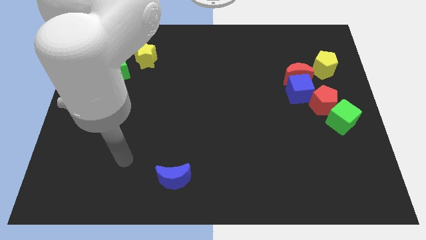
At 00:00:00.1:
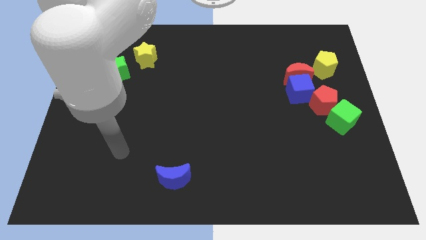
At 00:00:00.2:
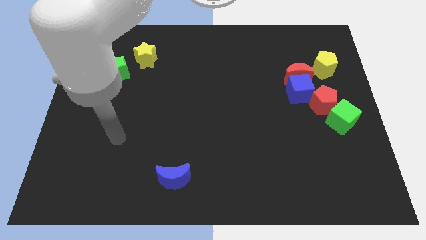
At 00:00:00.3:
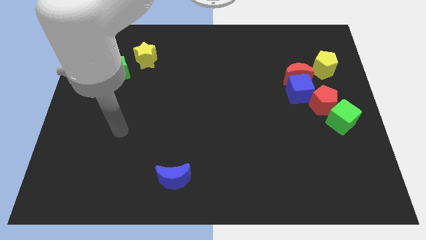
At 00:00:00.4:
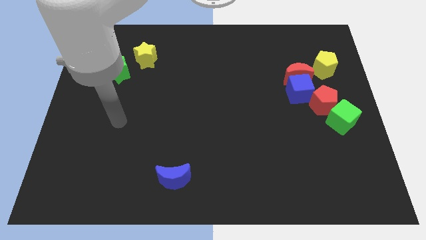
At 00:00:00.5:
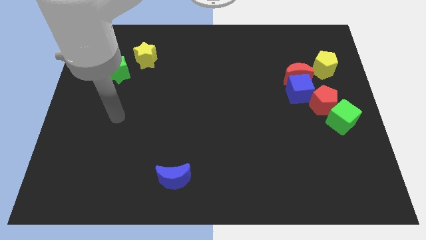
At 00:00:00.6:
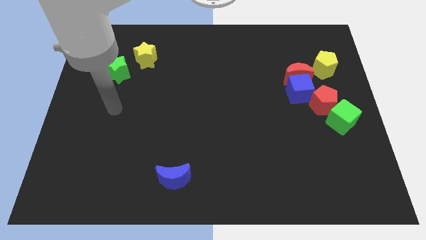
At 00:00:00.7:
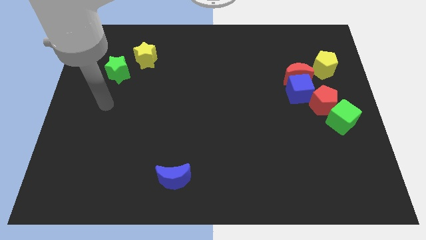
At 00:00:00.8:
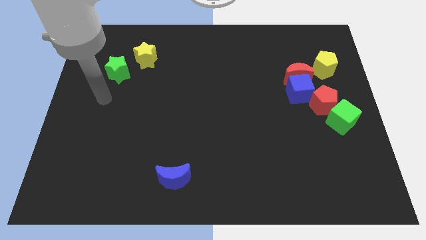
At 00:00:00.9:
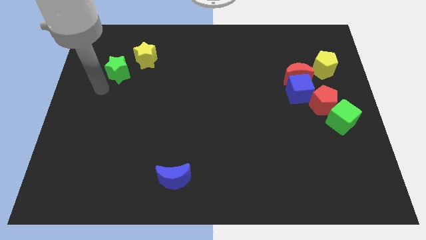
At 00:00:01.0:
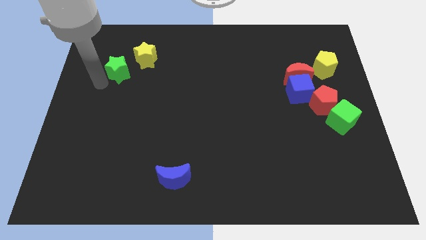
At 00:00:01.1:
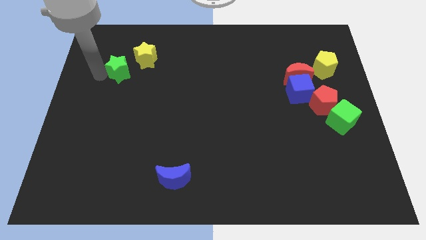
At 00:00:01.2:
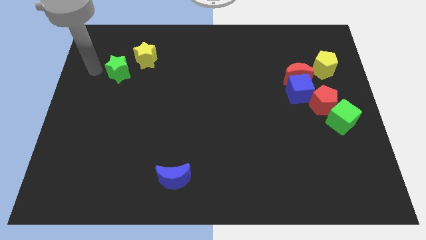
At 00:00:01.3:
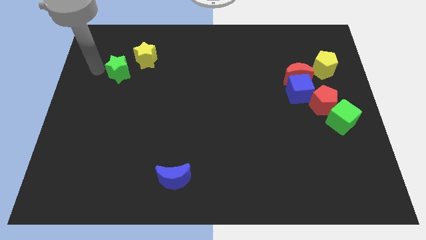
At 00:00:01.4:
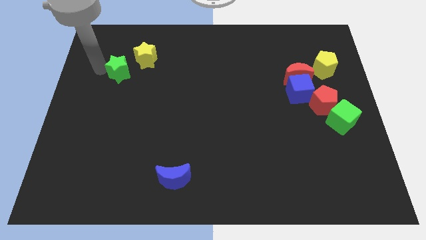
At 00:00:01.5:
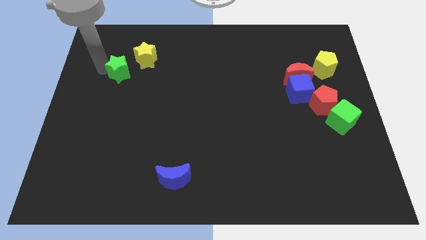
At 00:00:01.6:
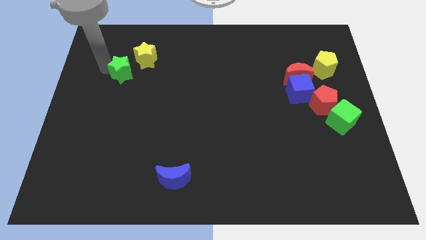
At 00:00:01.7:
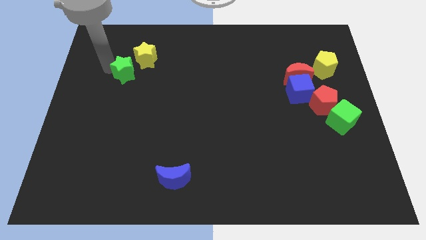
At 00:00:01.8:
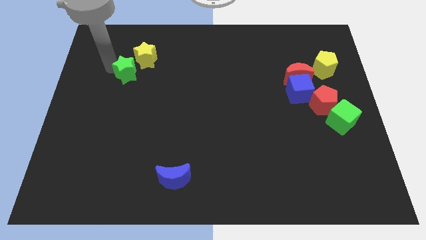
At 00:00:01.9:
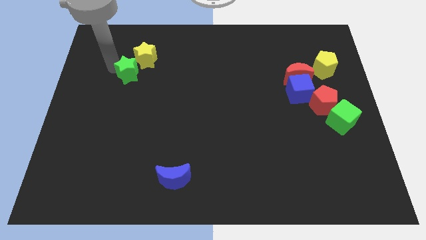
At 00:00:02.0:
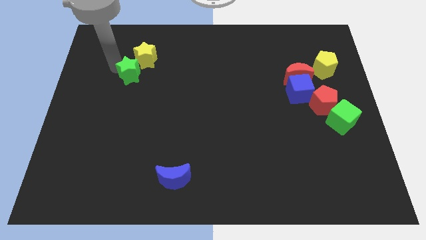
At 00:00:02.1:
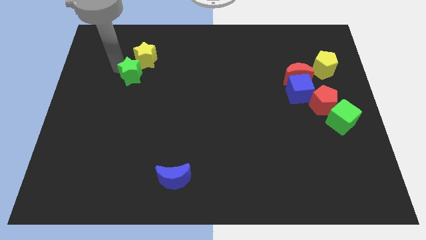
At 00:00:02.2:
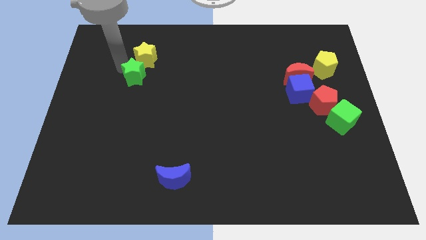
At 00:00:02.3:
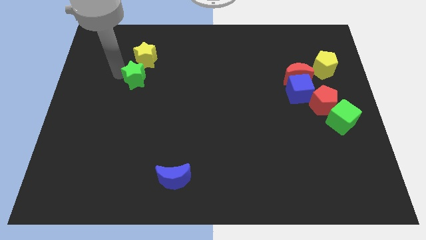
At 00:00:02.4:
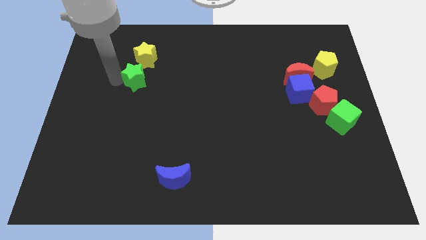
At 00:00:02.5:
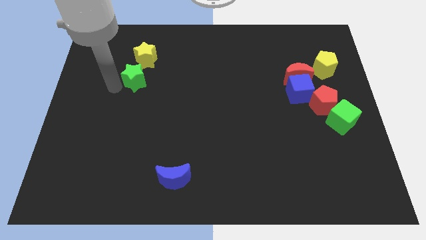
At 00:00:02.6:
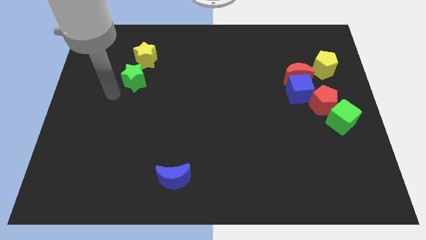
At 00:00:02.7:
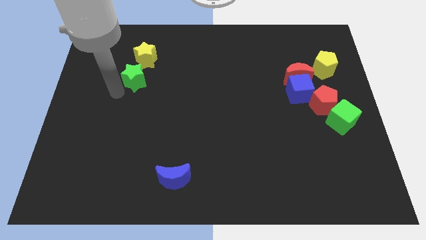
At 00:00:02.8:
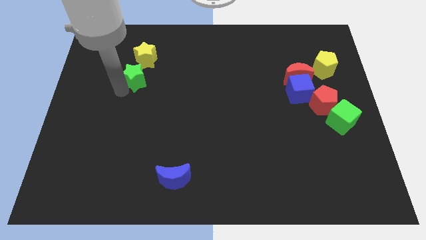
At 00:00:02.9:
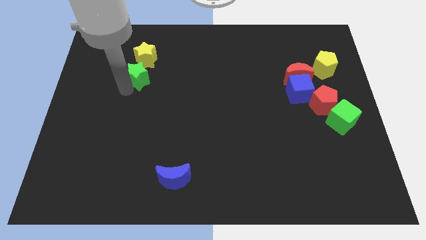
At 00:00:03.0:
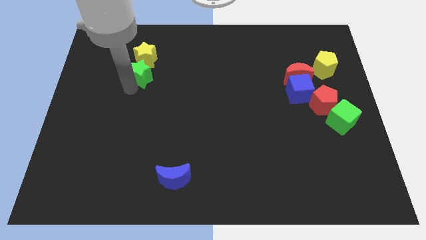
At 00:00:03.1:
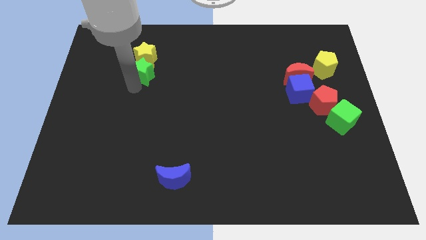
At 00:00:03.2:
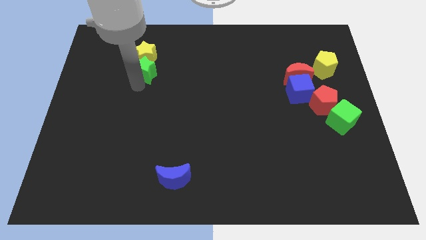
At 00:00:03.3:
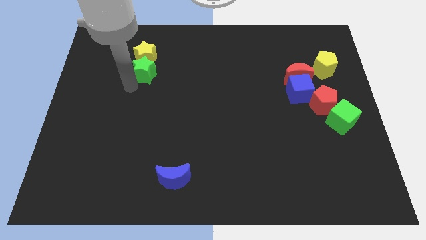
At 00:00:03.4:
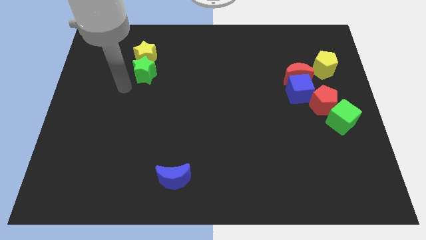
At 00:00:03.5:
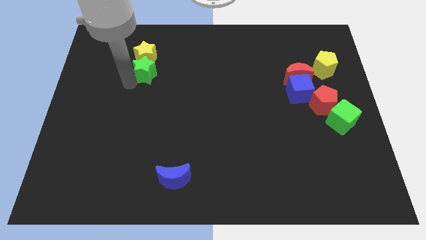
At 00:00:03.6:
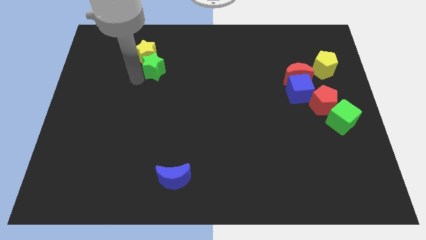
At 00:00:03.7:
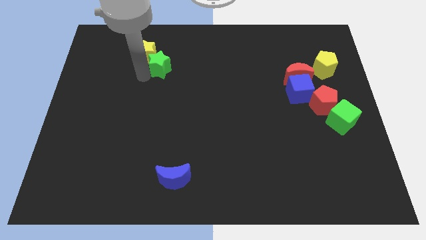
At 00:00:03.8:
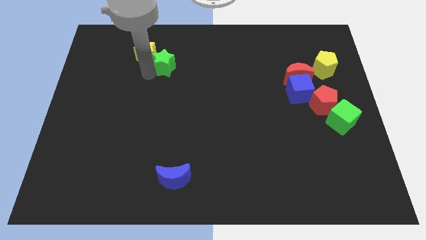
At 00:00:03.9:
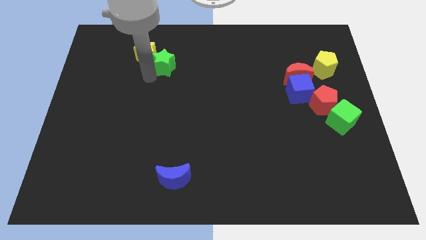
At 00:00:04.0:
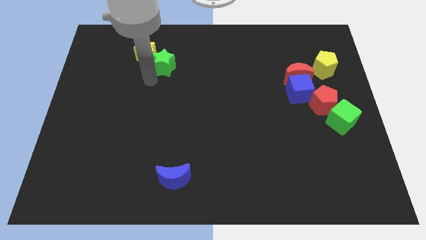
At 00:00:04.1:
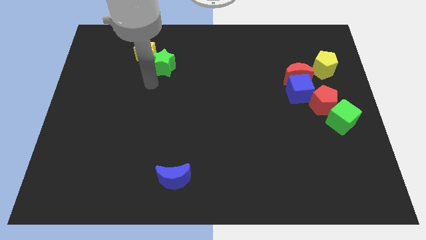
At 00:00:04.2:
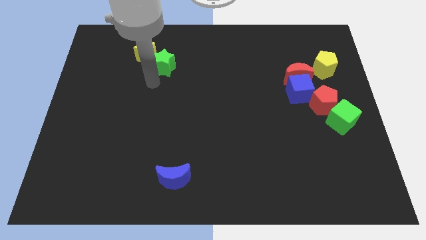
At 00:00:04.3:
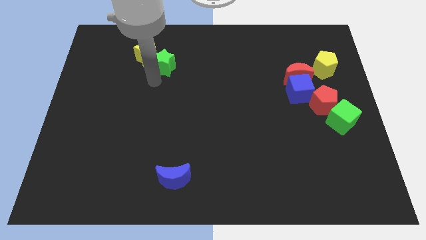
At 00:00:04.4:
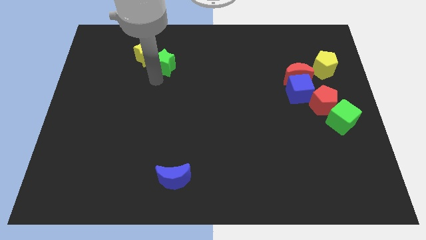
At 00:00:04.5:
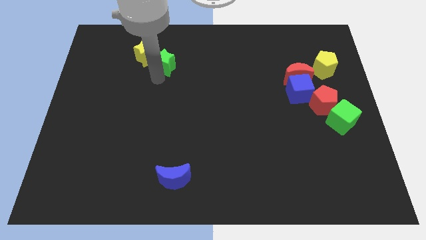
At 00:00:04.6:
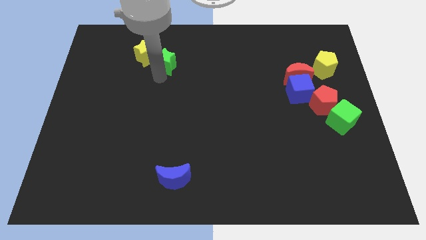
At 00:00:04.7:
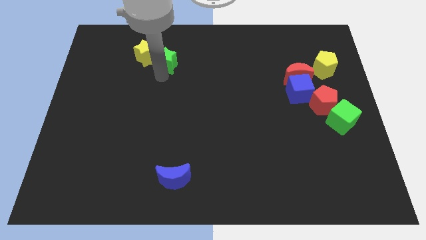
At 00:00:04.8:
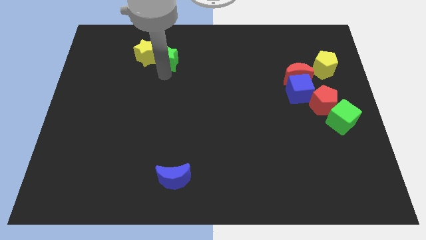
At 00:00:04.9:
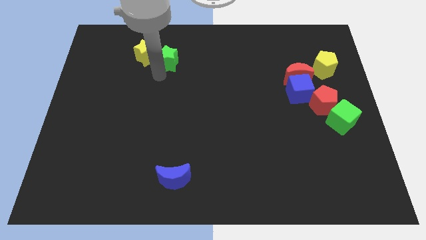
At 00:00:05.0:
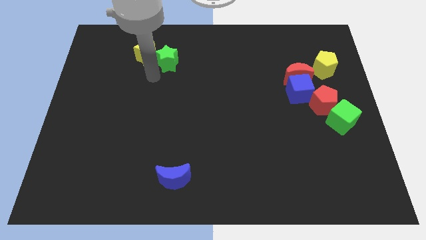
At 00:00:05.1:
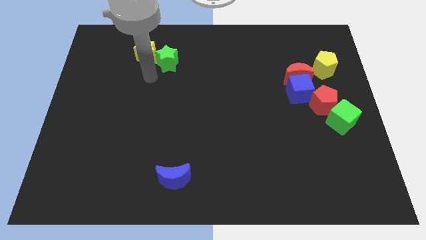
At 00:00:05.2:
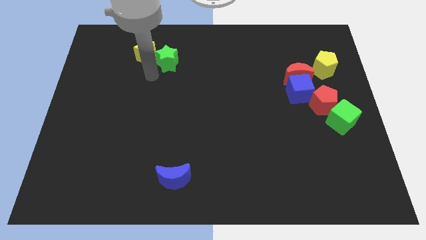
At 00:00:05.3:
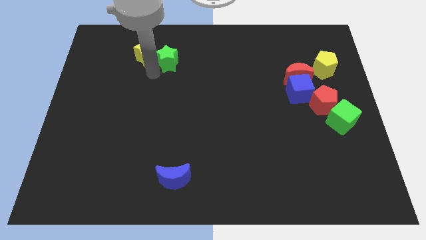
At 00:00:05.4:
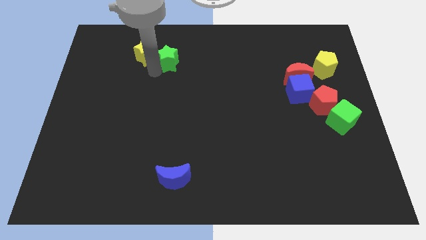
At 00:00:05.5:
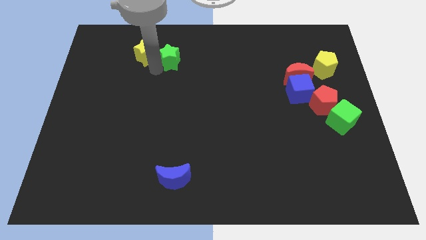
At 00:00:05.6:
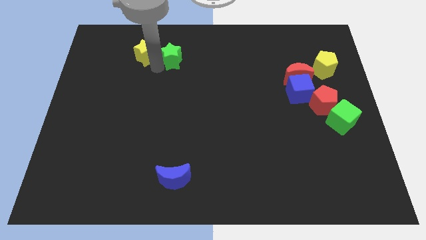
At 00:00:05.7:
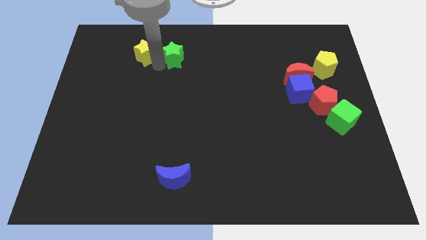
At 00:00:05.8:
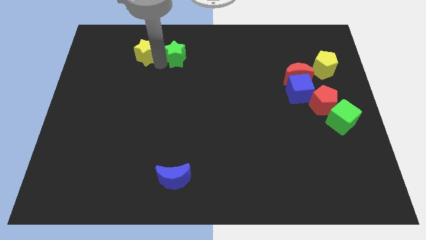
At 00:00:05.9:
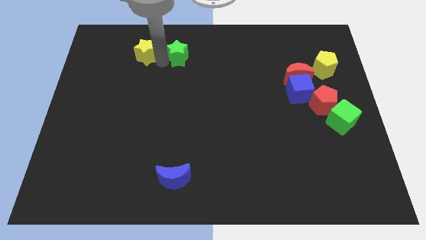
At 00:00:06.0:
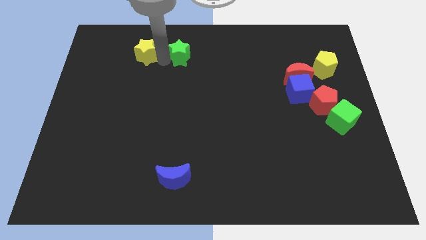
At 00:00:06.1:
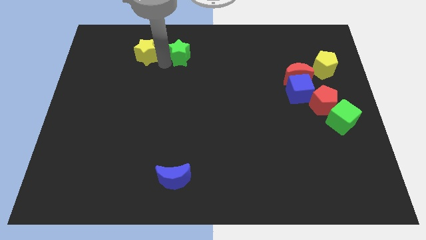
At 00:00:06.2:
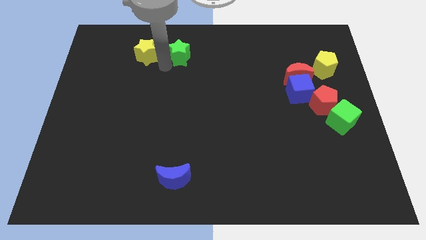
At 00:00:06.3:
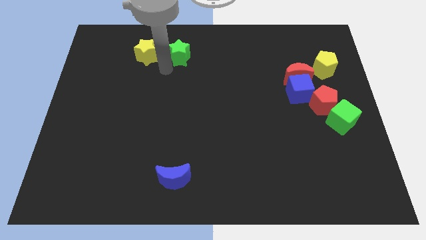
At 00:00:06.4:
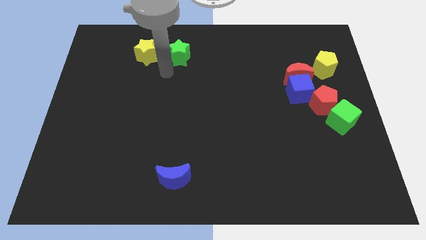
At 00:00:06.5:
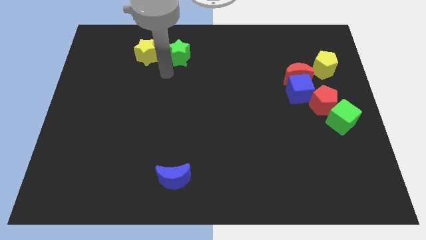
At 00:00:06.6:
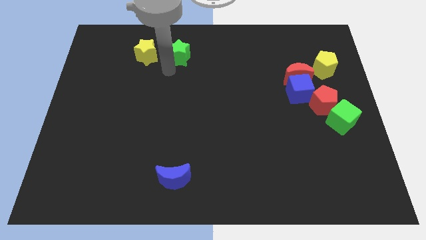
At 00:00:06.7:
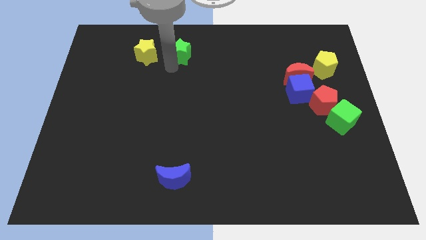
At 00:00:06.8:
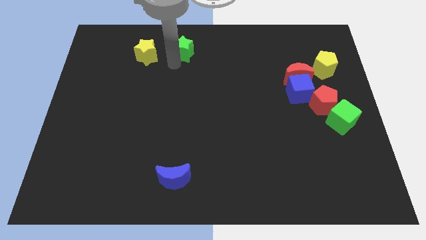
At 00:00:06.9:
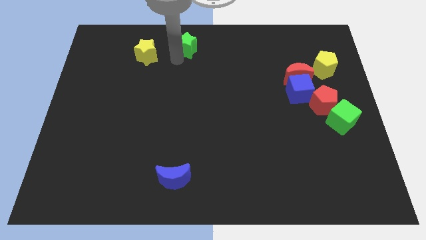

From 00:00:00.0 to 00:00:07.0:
slide the green star to the top
